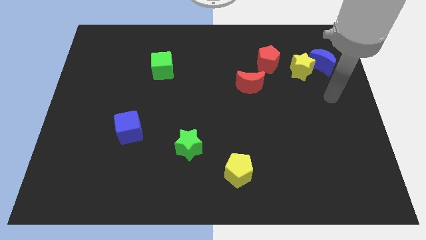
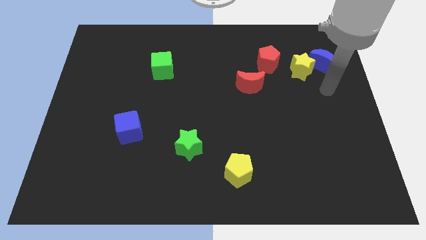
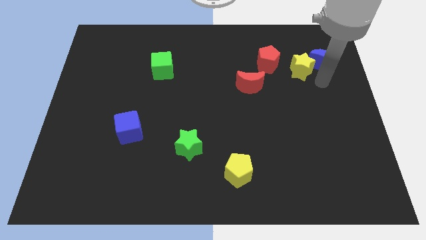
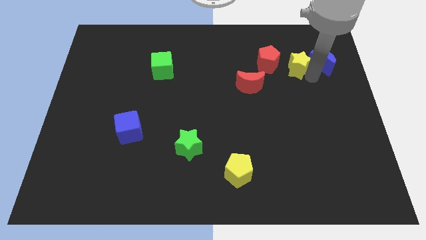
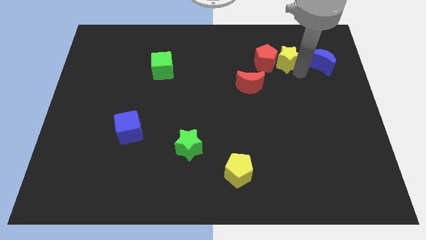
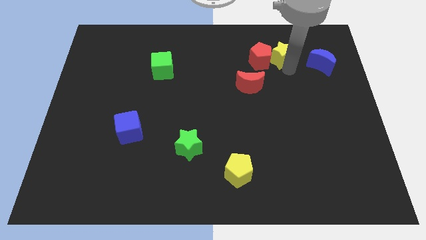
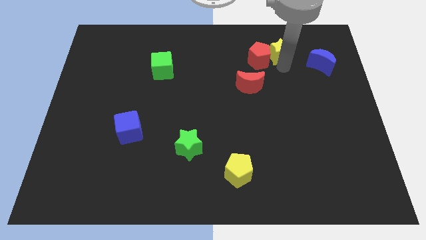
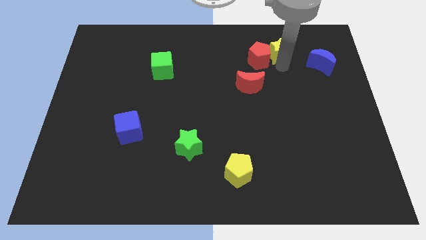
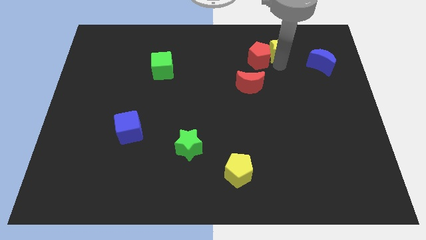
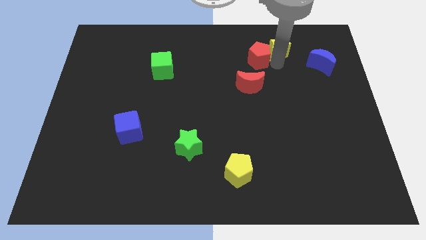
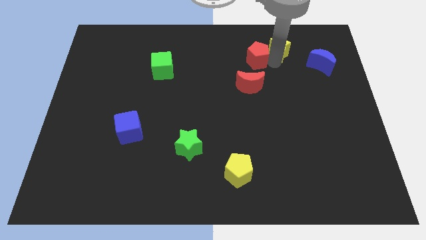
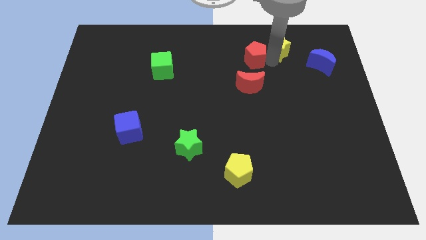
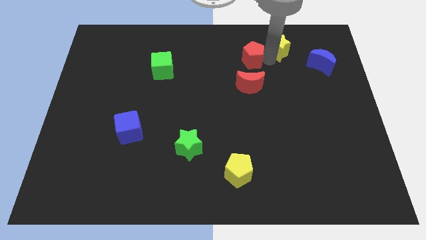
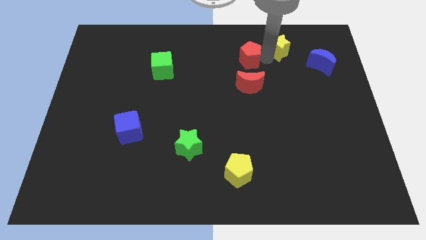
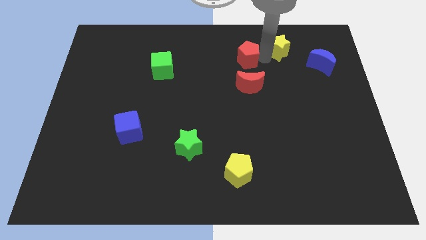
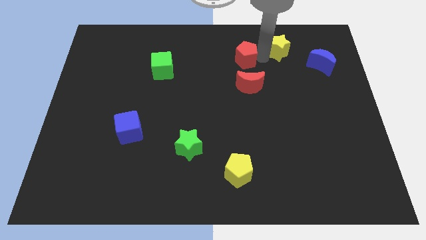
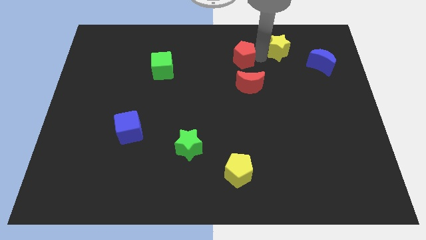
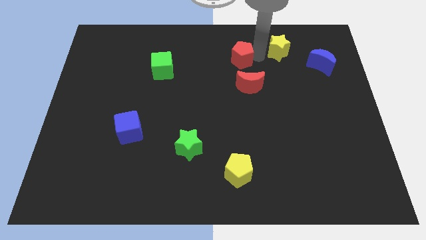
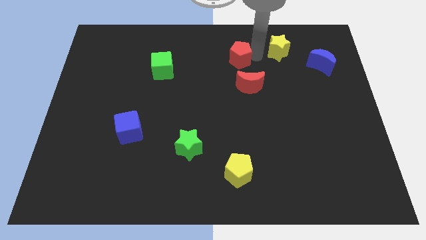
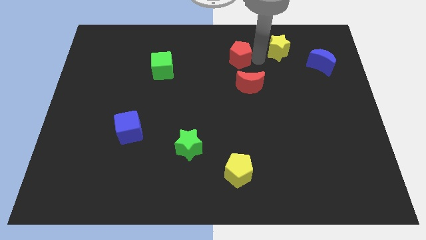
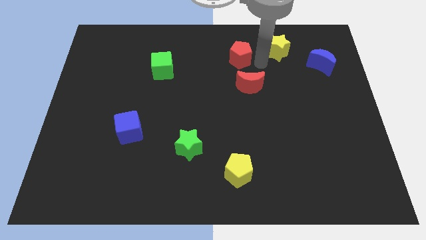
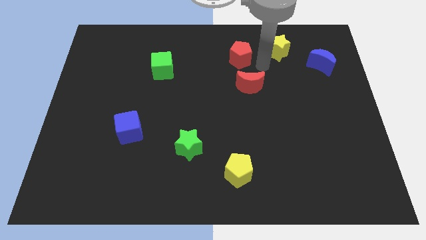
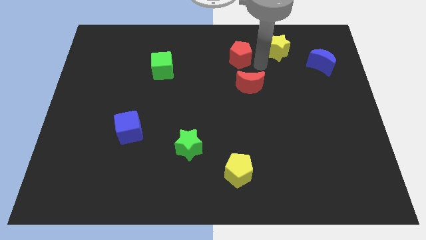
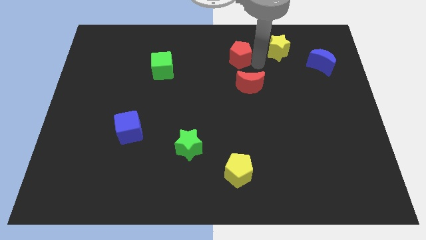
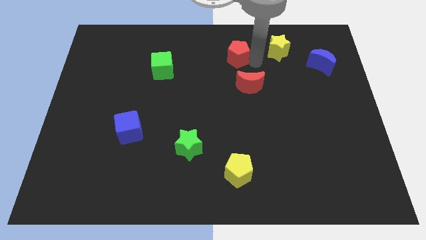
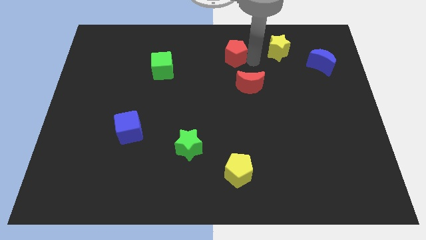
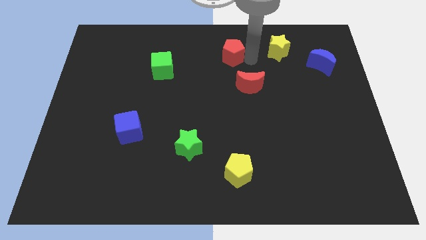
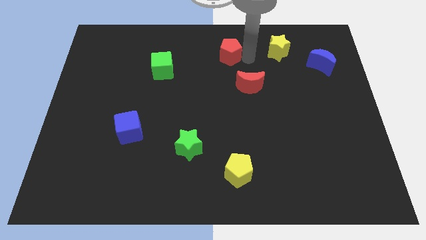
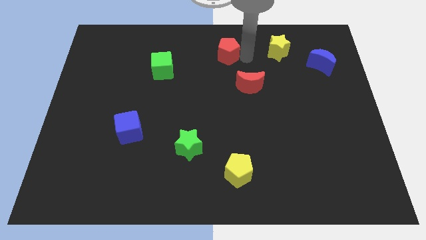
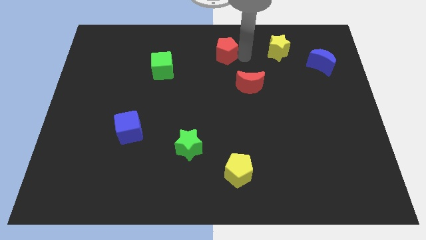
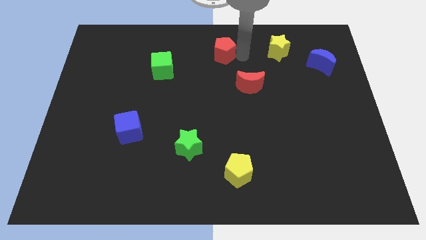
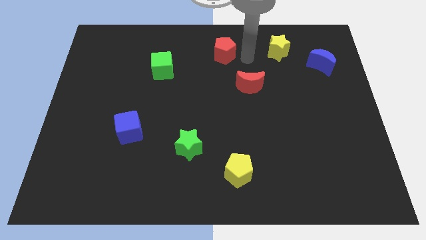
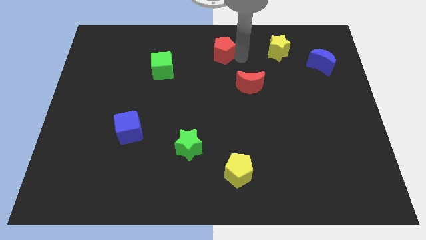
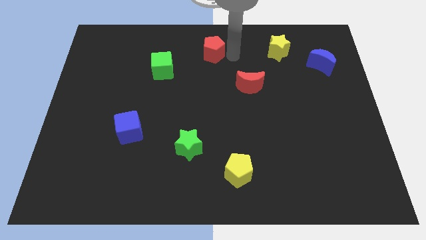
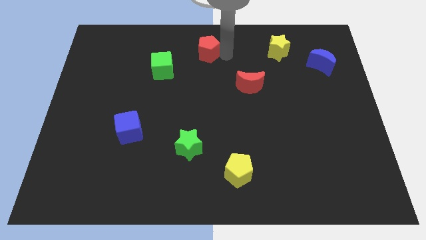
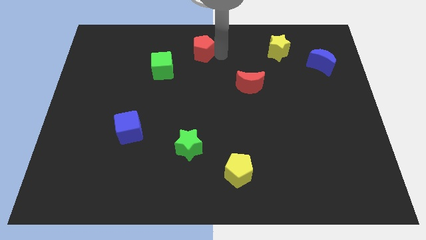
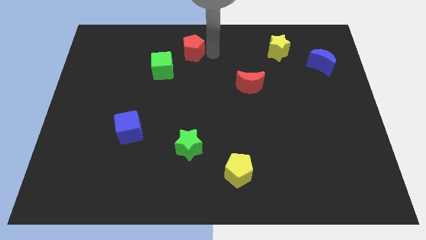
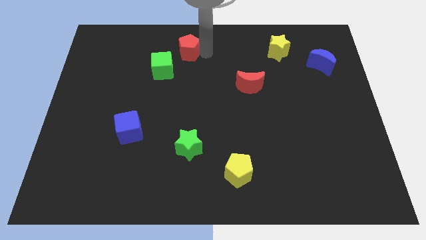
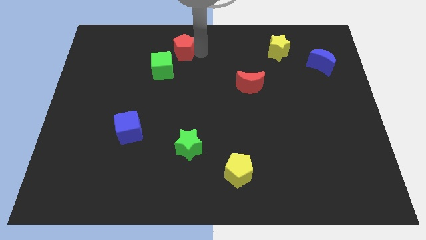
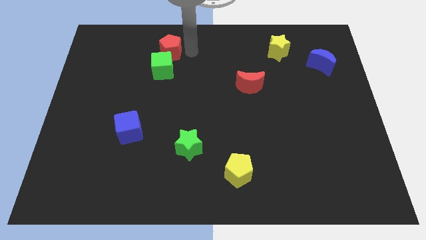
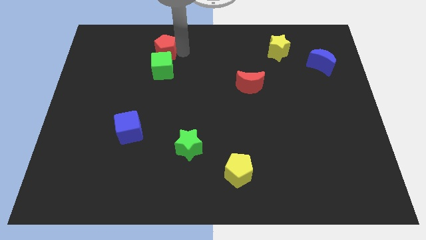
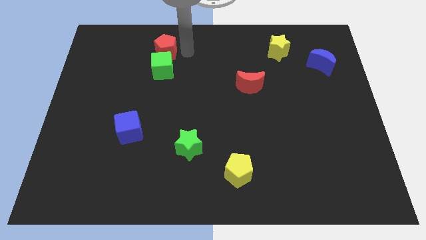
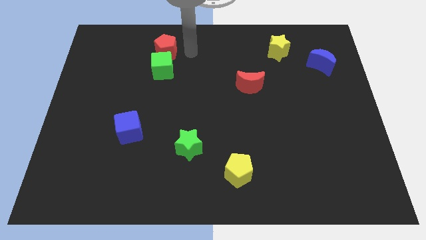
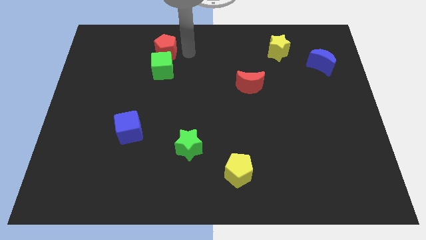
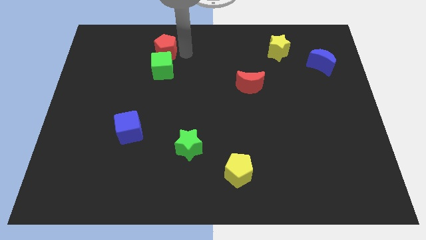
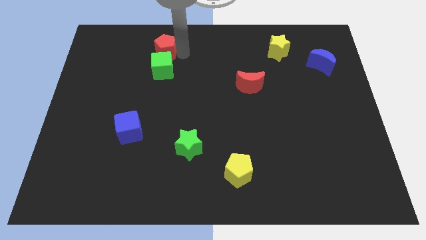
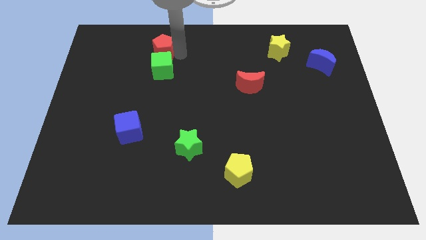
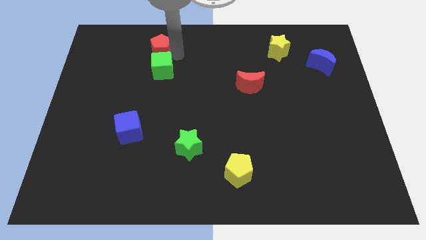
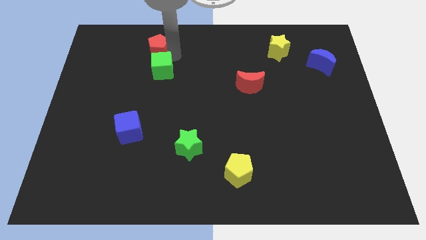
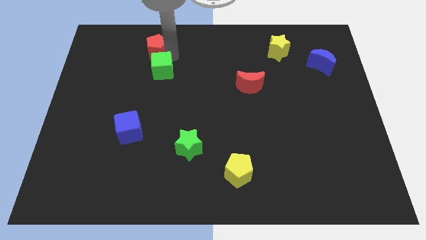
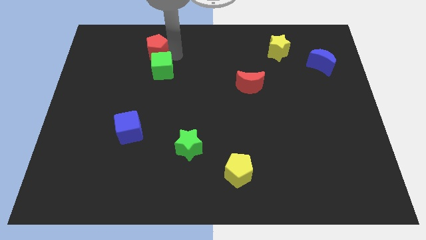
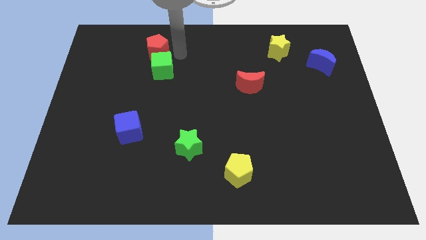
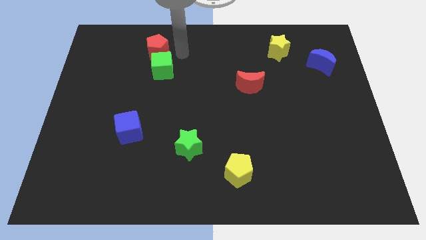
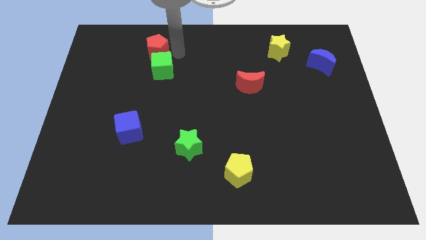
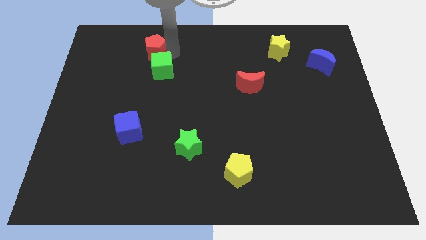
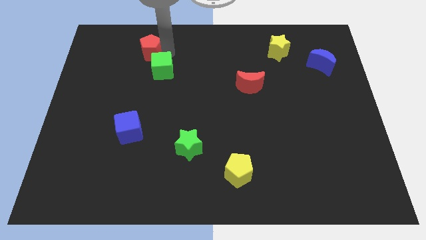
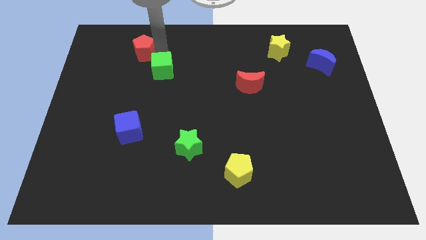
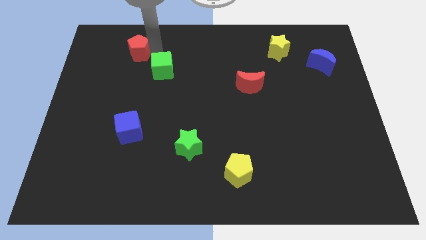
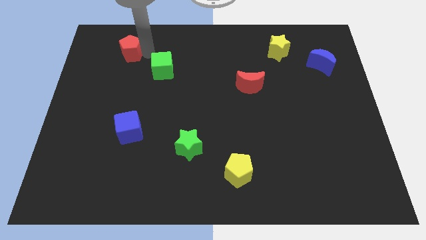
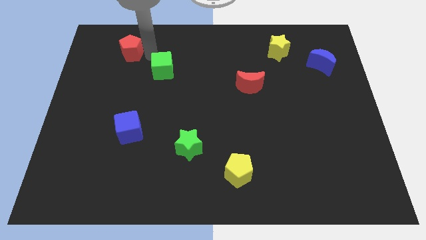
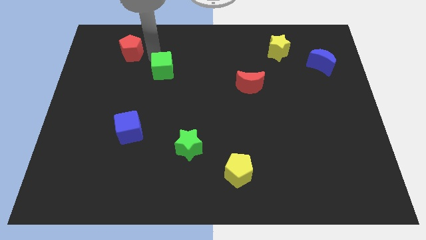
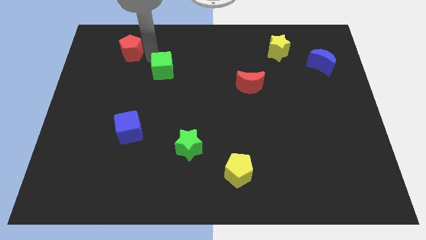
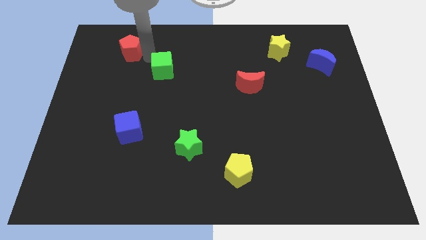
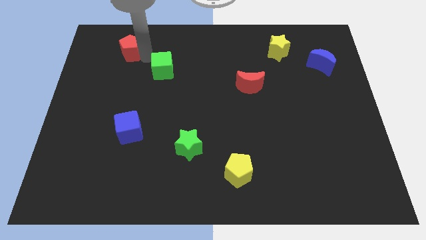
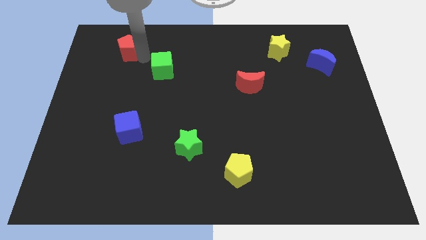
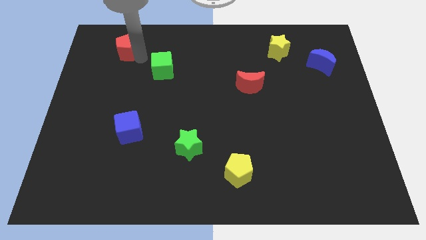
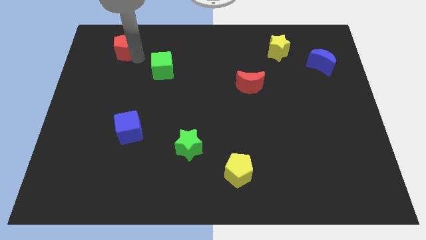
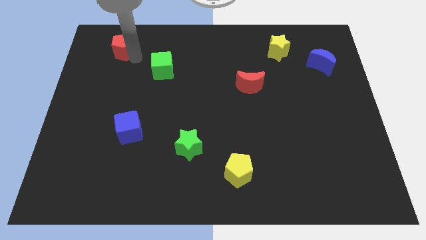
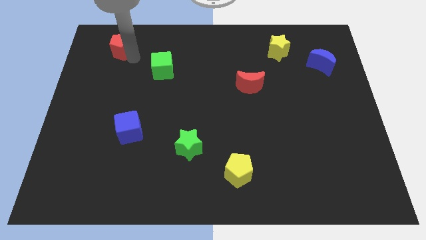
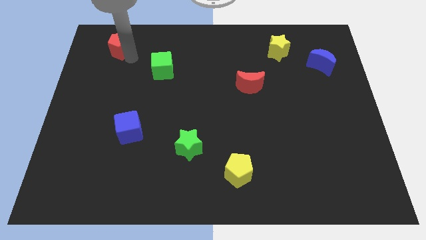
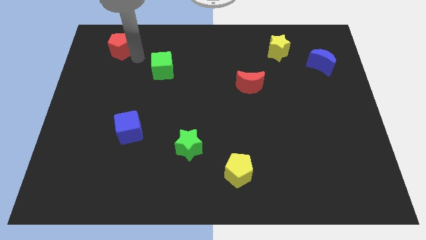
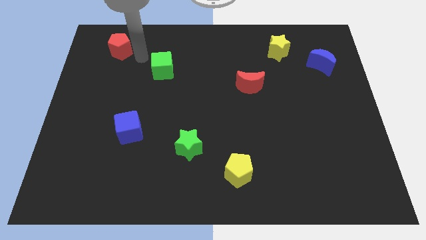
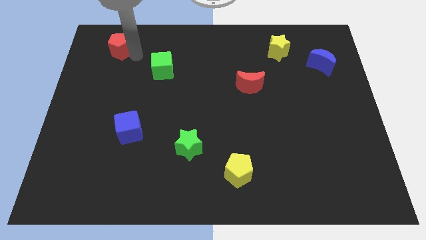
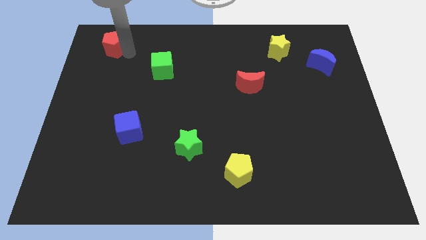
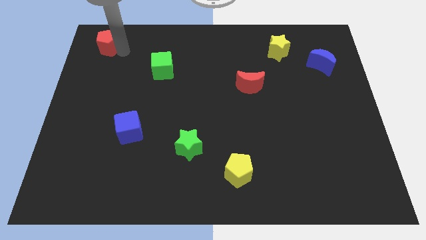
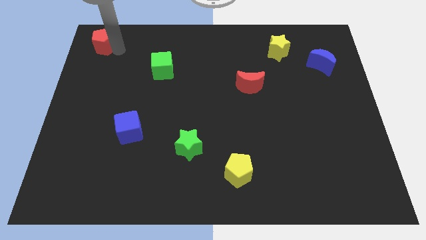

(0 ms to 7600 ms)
push the red pentagon to the top left corner
